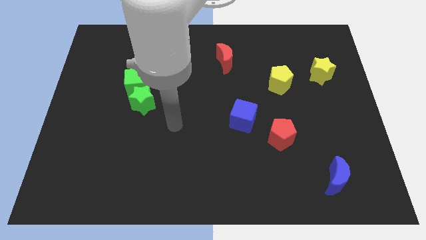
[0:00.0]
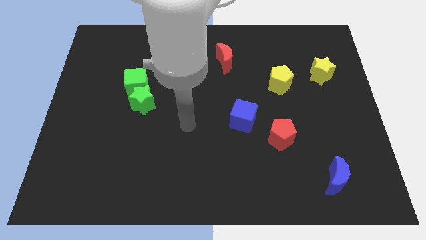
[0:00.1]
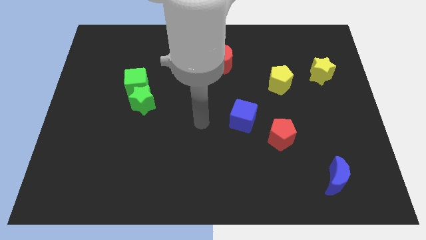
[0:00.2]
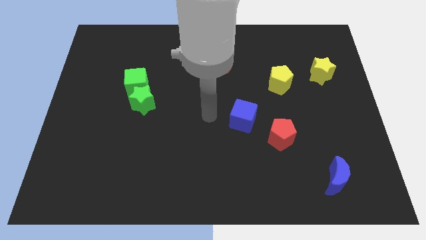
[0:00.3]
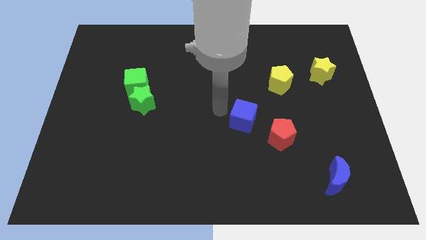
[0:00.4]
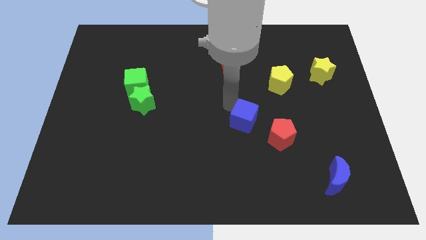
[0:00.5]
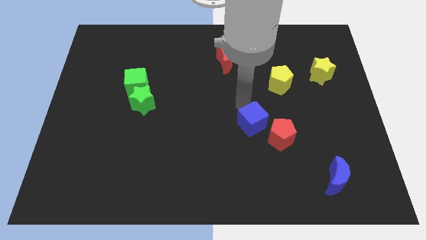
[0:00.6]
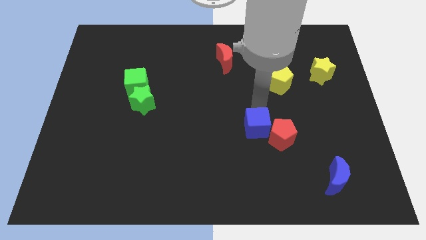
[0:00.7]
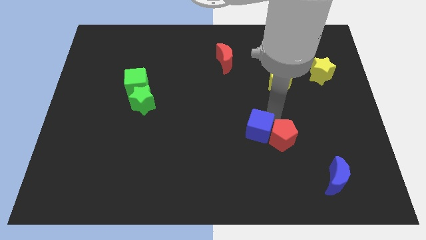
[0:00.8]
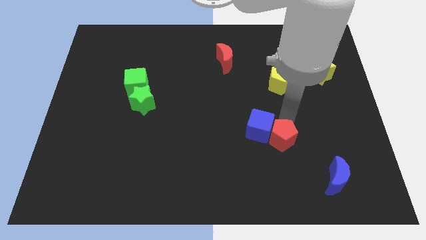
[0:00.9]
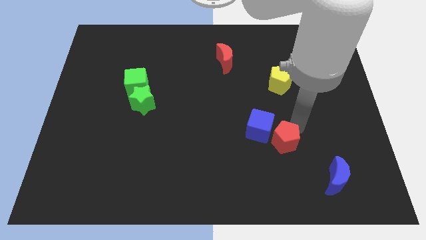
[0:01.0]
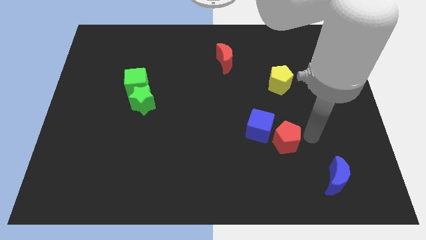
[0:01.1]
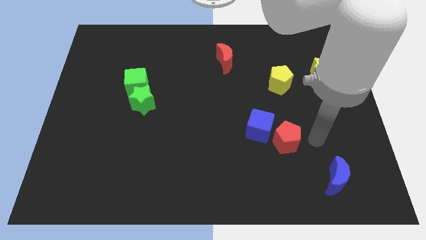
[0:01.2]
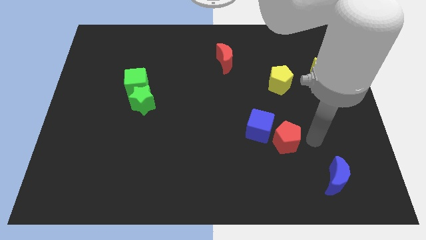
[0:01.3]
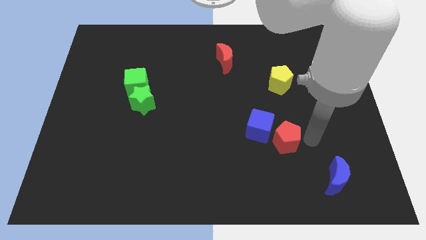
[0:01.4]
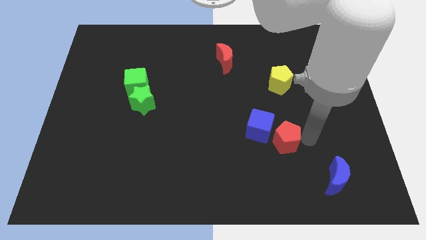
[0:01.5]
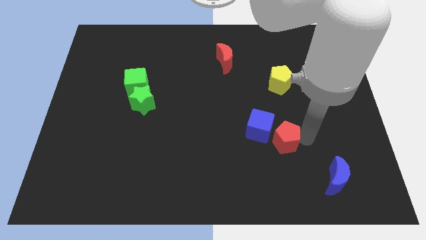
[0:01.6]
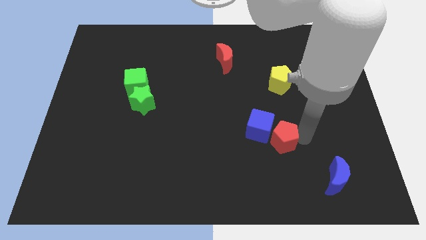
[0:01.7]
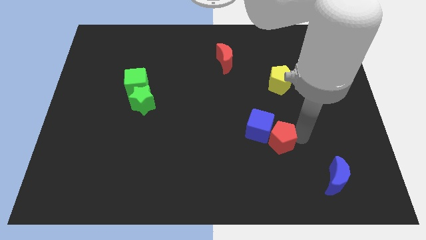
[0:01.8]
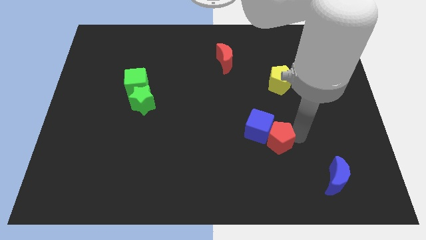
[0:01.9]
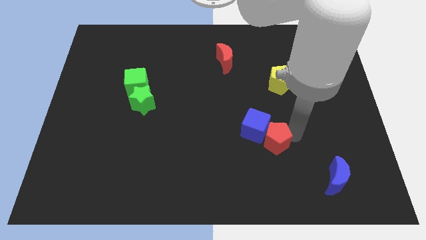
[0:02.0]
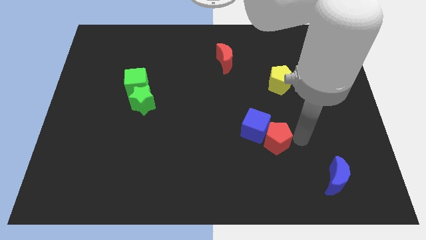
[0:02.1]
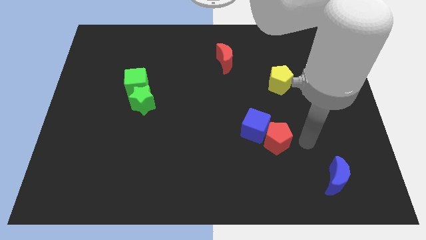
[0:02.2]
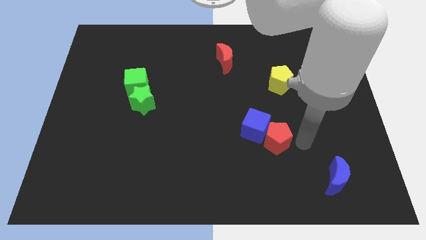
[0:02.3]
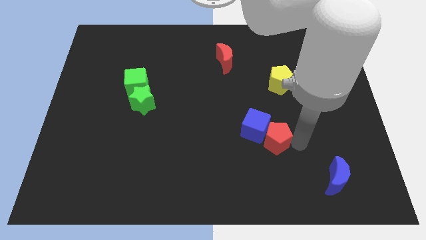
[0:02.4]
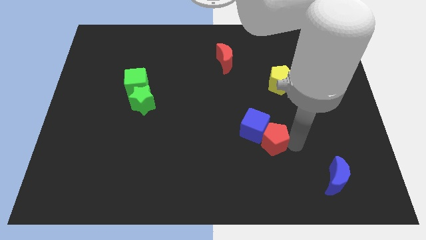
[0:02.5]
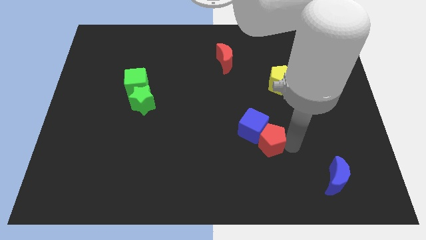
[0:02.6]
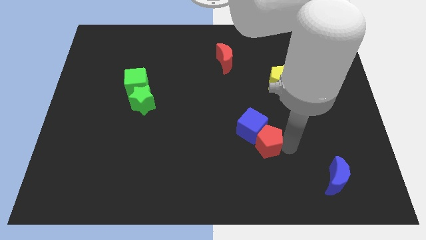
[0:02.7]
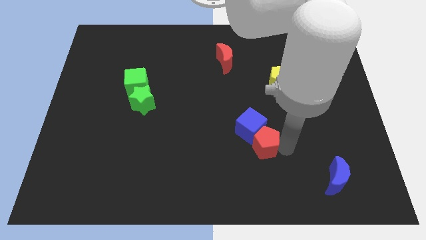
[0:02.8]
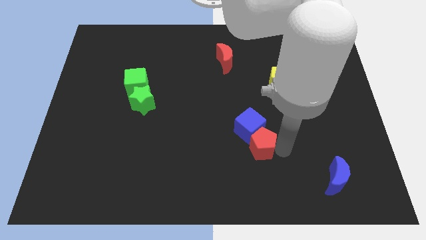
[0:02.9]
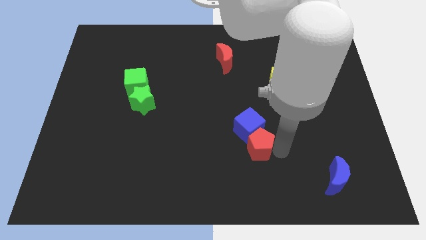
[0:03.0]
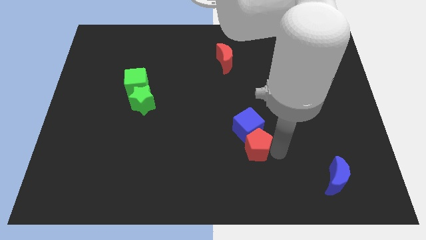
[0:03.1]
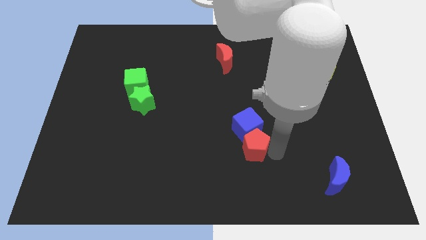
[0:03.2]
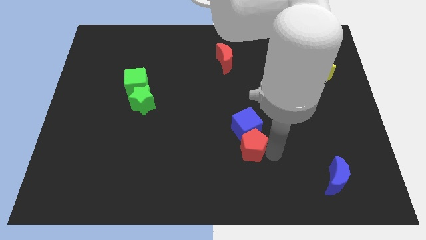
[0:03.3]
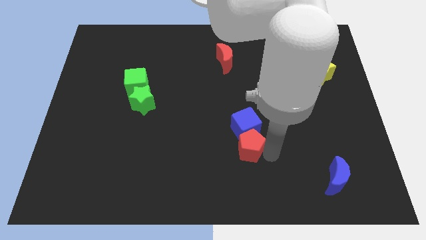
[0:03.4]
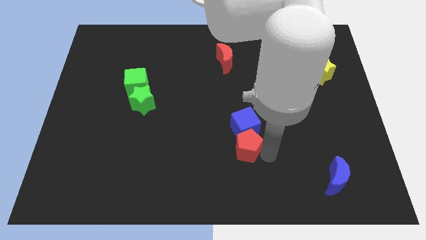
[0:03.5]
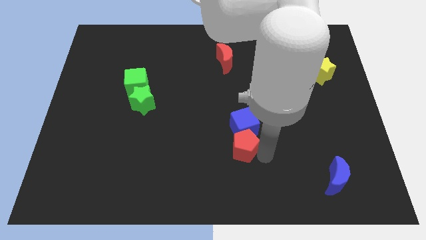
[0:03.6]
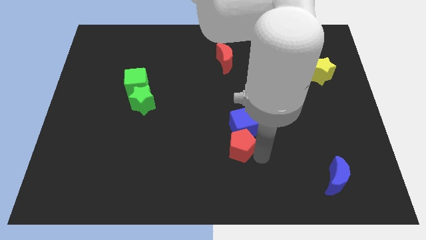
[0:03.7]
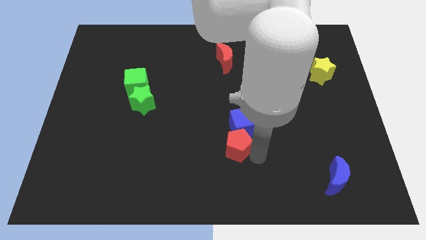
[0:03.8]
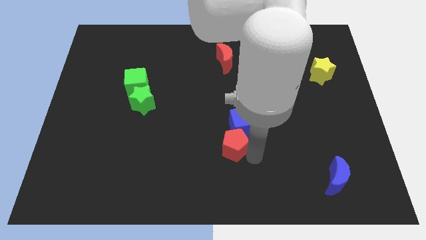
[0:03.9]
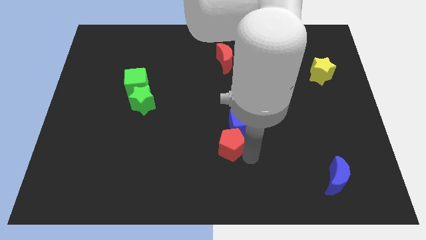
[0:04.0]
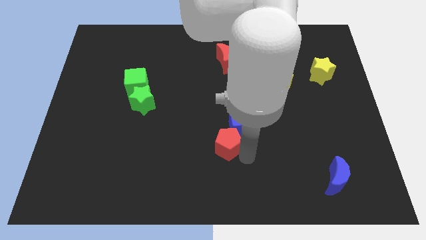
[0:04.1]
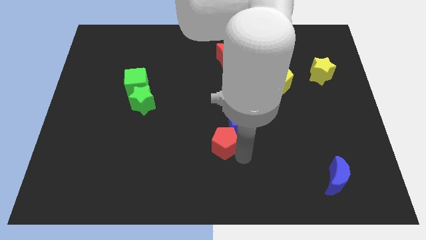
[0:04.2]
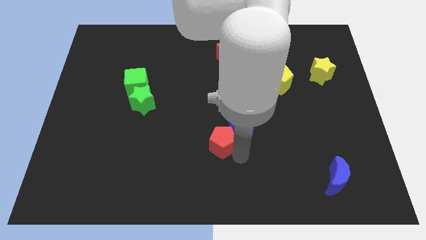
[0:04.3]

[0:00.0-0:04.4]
put the red pentagon to the center of the board

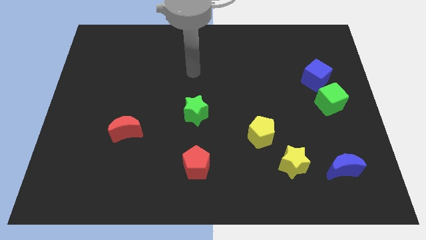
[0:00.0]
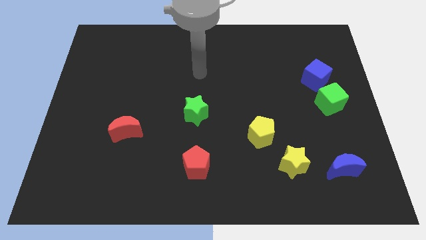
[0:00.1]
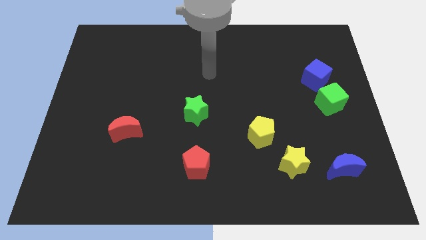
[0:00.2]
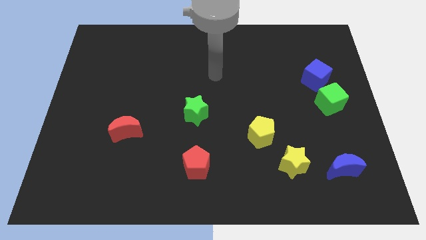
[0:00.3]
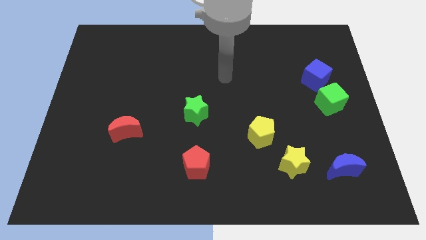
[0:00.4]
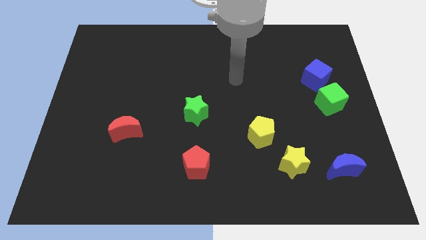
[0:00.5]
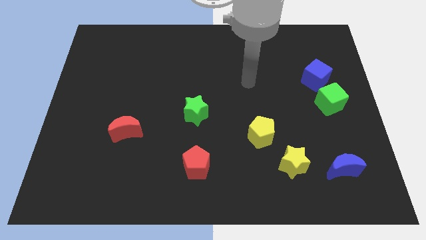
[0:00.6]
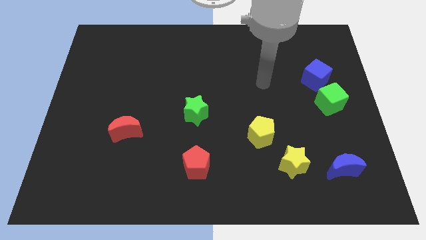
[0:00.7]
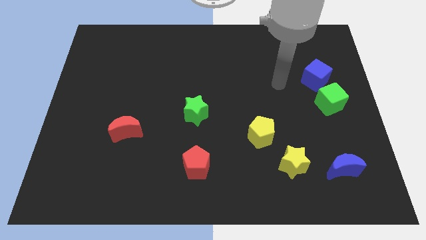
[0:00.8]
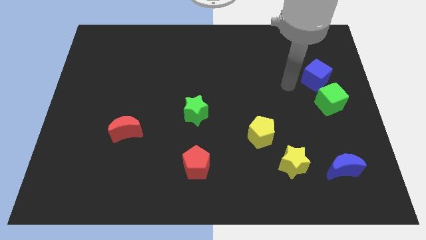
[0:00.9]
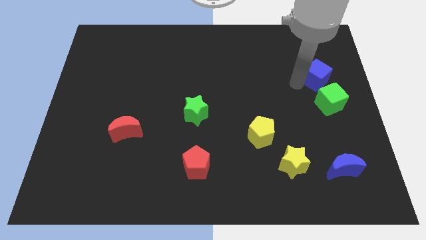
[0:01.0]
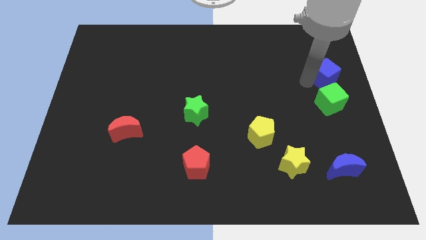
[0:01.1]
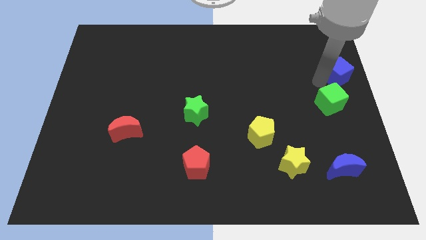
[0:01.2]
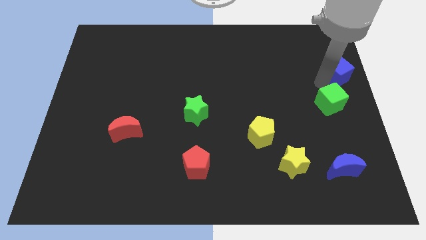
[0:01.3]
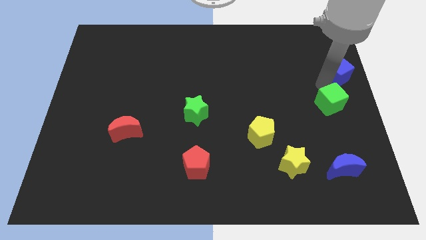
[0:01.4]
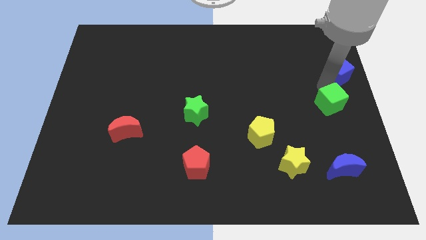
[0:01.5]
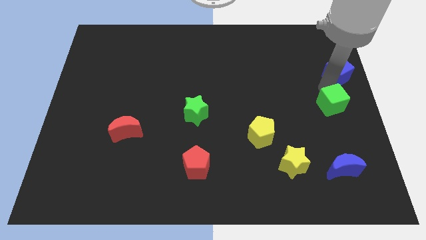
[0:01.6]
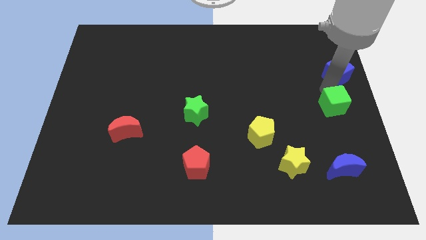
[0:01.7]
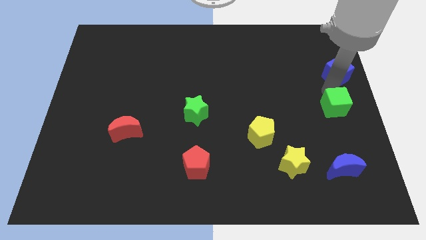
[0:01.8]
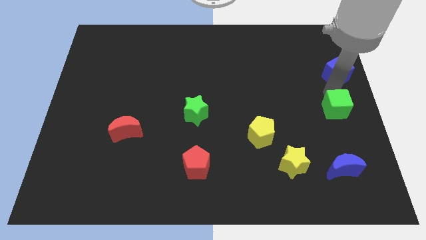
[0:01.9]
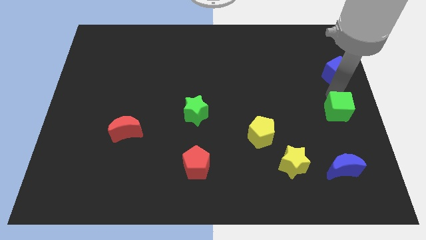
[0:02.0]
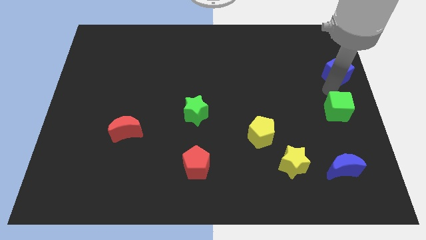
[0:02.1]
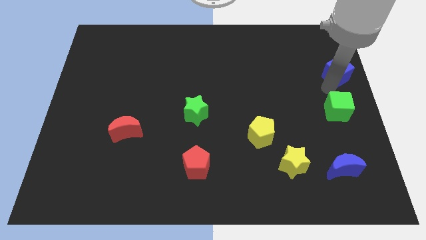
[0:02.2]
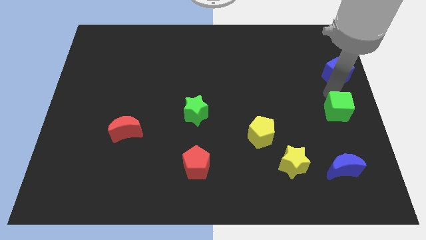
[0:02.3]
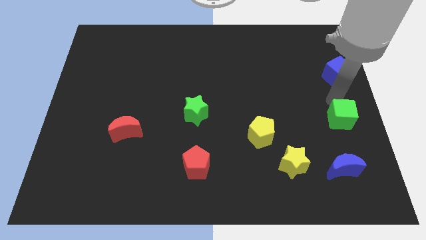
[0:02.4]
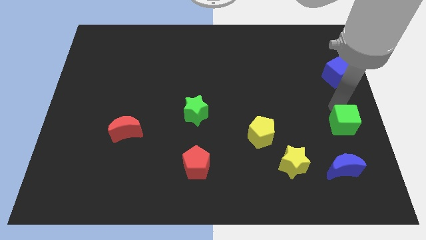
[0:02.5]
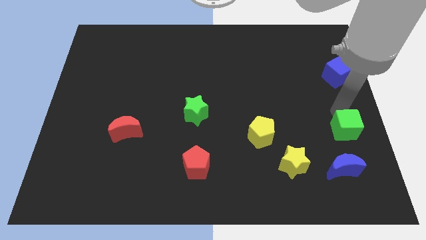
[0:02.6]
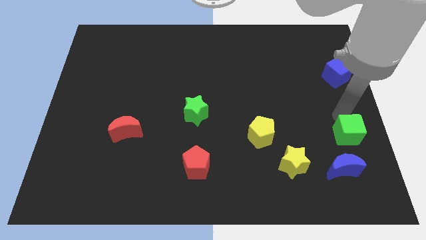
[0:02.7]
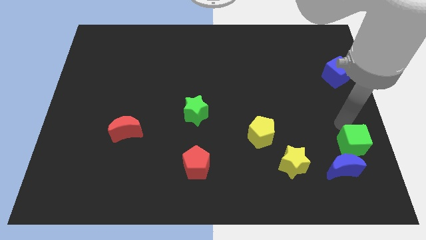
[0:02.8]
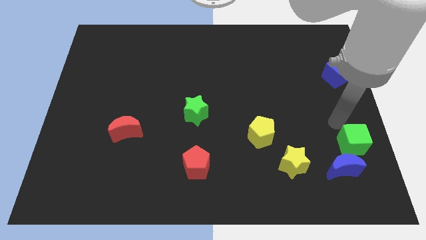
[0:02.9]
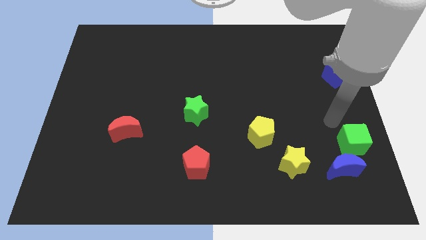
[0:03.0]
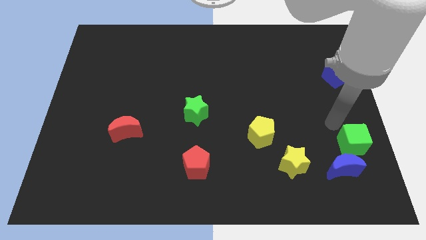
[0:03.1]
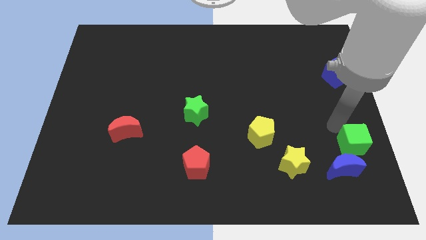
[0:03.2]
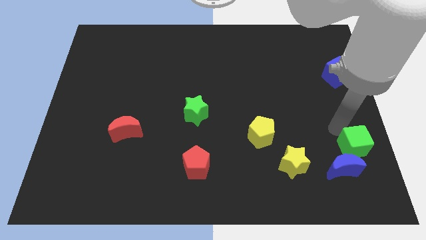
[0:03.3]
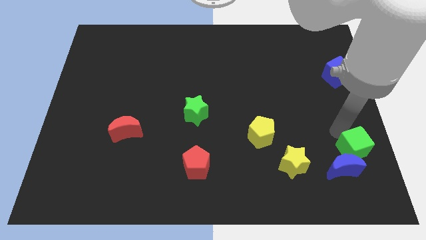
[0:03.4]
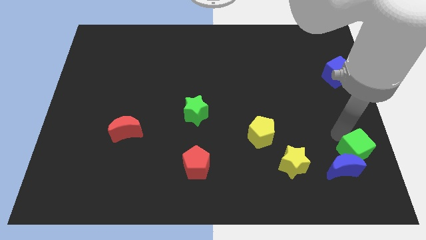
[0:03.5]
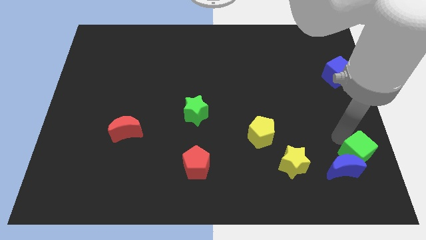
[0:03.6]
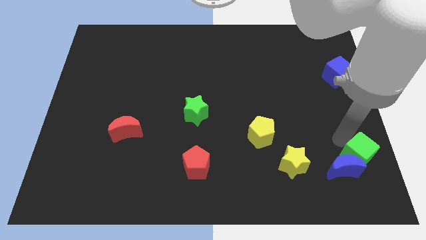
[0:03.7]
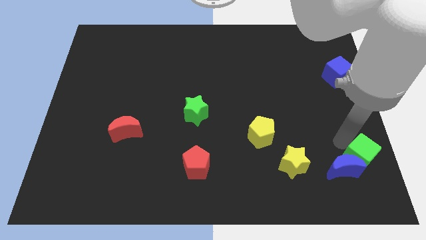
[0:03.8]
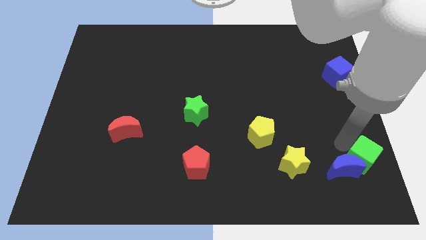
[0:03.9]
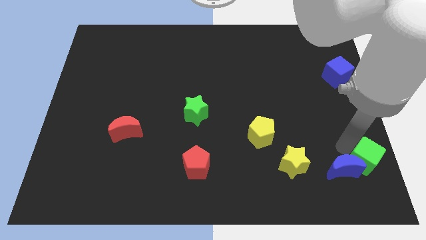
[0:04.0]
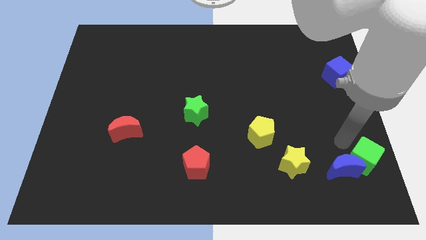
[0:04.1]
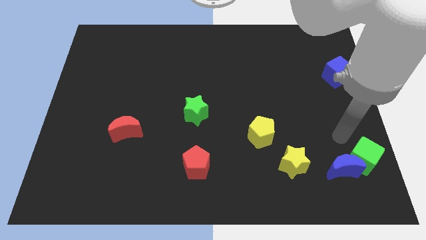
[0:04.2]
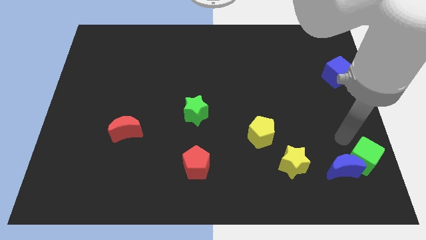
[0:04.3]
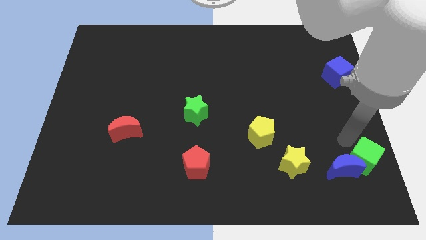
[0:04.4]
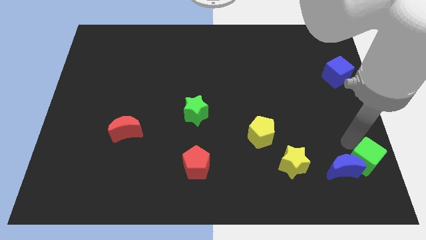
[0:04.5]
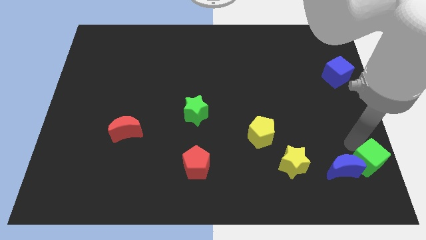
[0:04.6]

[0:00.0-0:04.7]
push the green cube to the bottom right corner
